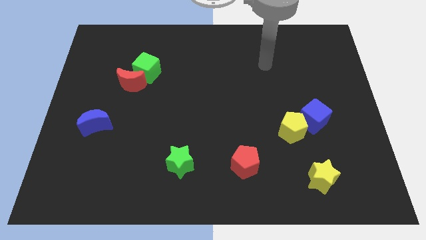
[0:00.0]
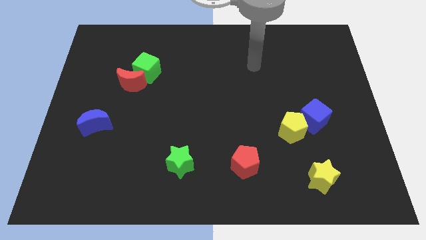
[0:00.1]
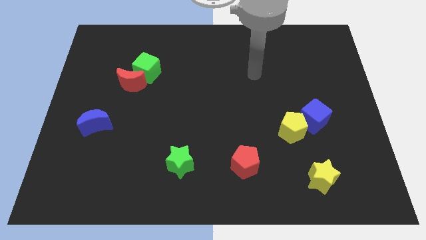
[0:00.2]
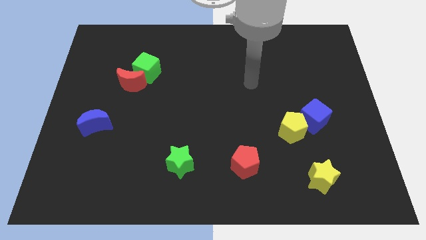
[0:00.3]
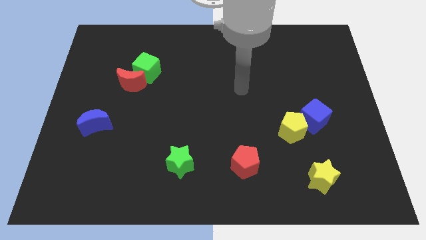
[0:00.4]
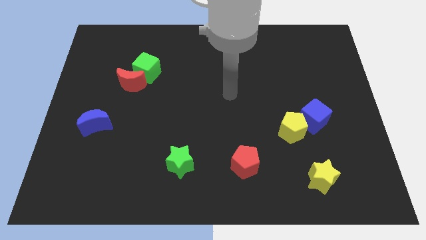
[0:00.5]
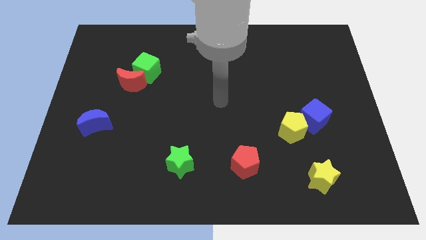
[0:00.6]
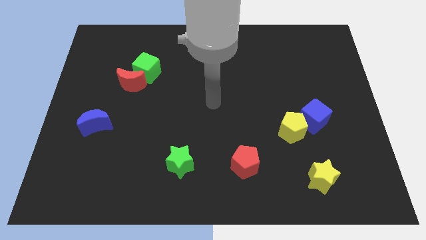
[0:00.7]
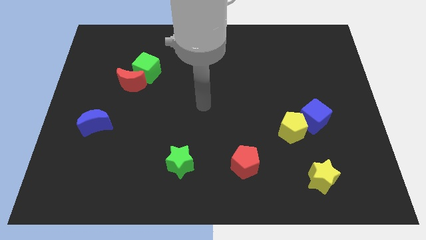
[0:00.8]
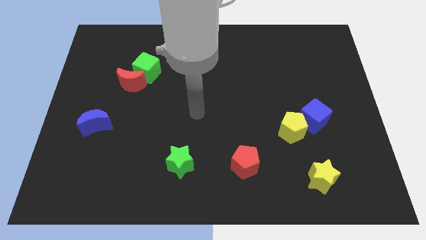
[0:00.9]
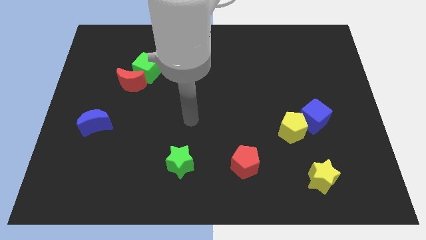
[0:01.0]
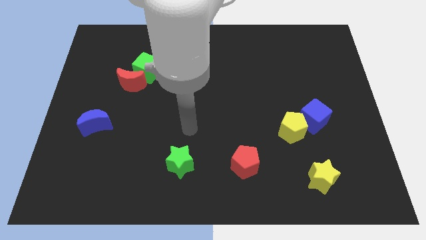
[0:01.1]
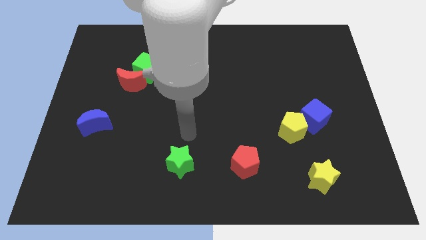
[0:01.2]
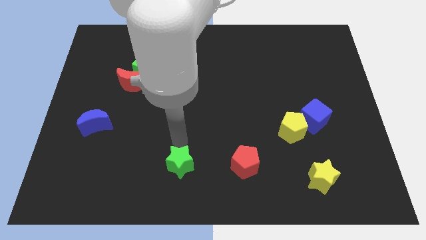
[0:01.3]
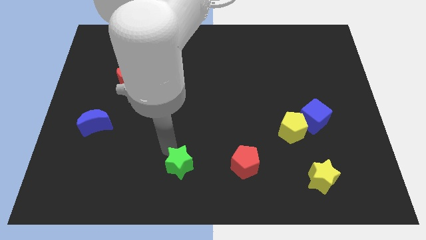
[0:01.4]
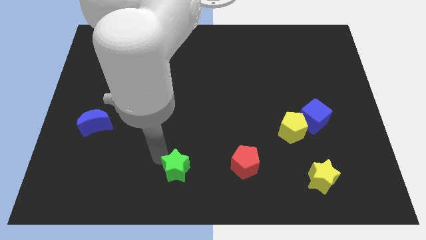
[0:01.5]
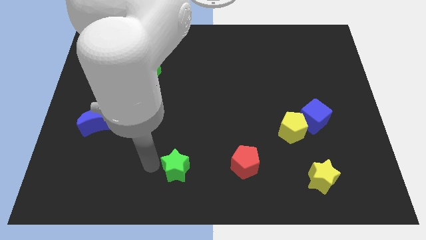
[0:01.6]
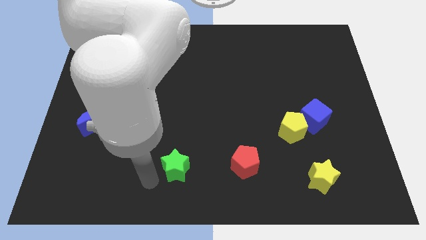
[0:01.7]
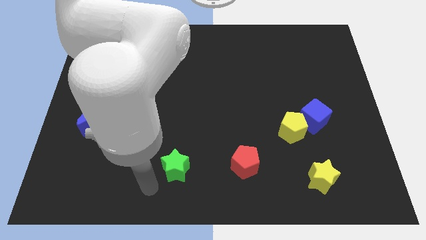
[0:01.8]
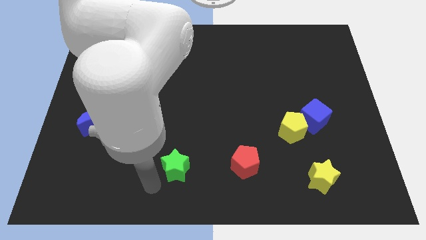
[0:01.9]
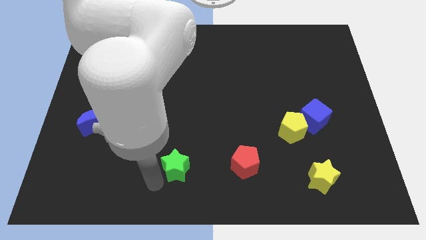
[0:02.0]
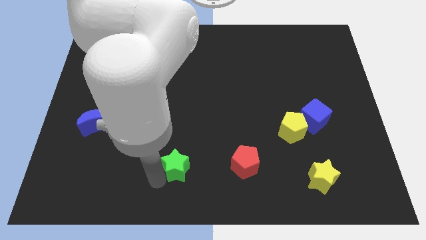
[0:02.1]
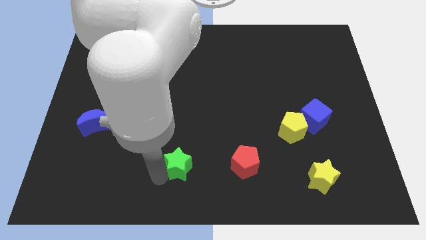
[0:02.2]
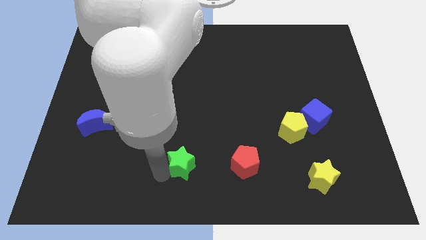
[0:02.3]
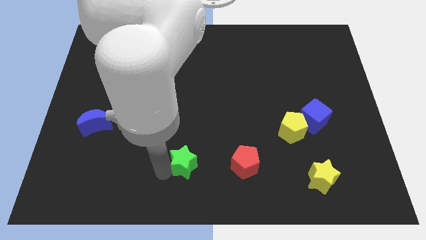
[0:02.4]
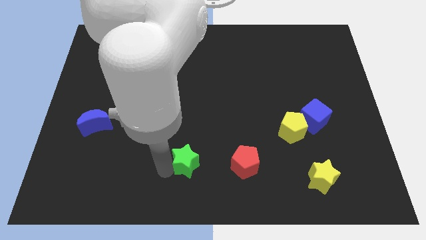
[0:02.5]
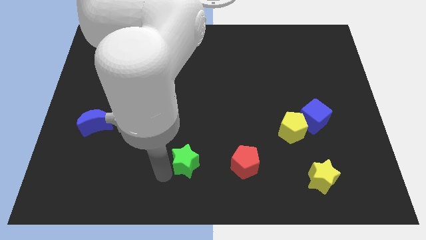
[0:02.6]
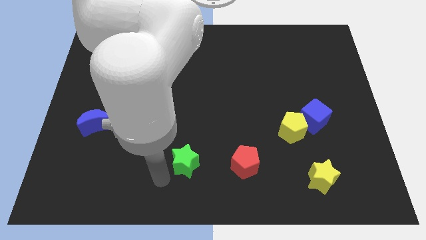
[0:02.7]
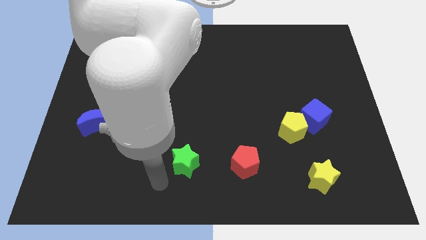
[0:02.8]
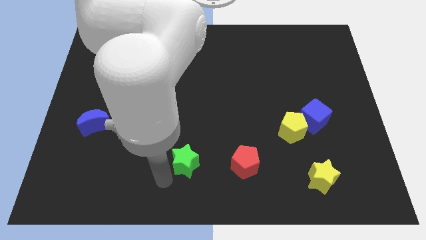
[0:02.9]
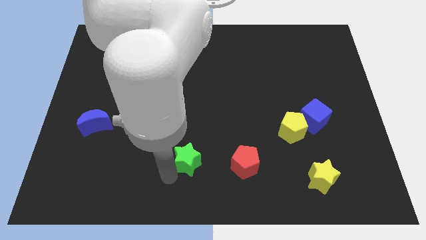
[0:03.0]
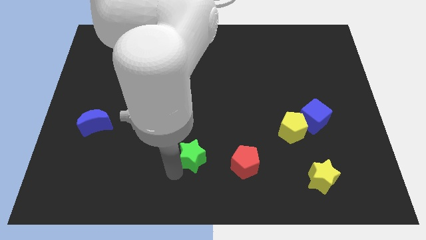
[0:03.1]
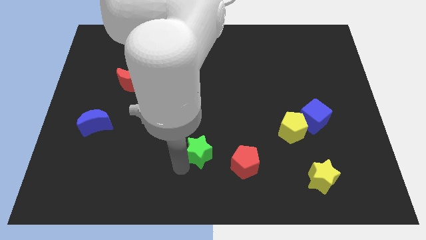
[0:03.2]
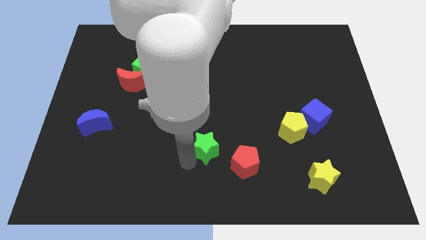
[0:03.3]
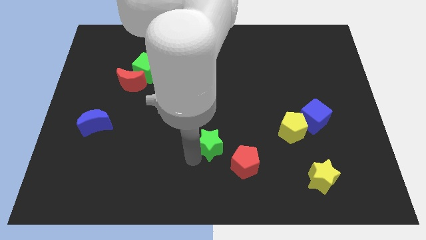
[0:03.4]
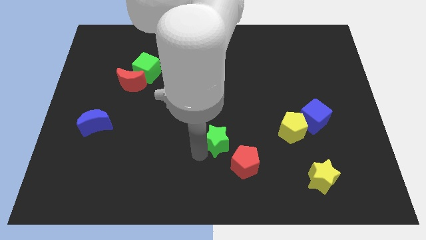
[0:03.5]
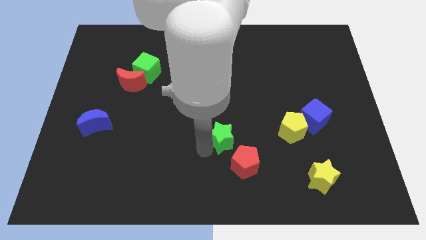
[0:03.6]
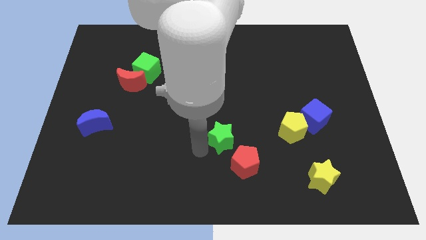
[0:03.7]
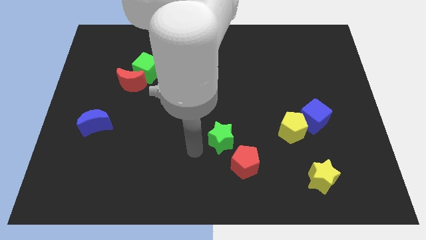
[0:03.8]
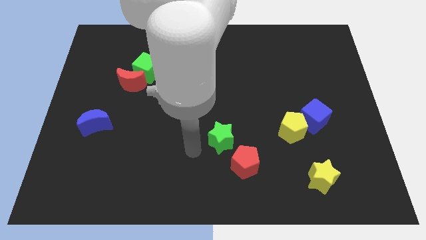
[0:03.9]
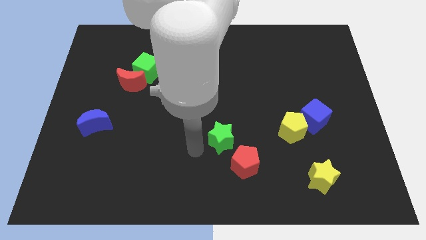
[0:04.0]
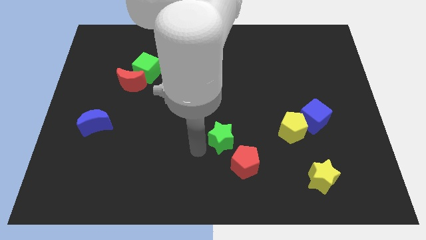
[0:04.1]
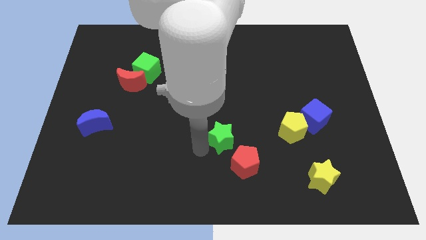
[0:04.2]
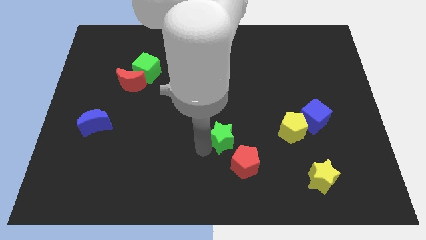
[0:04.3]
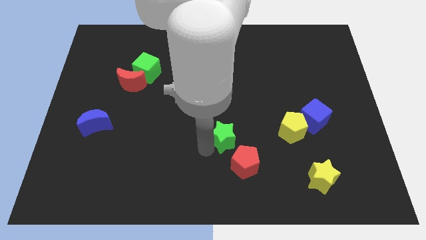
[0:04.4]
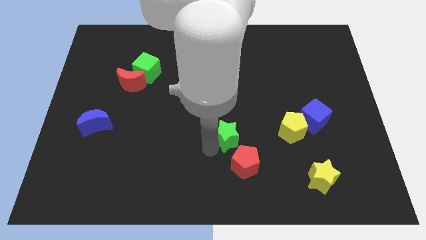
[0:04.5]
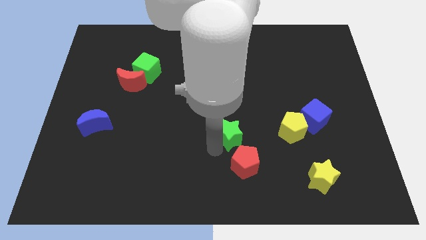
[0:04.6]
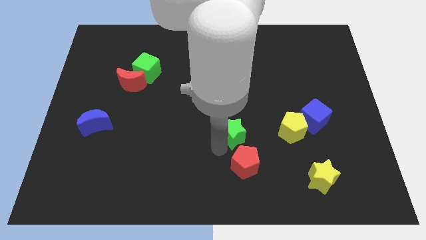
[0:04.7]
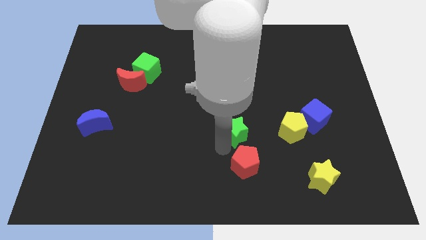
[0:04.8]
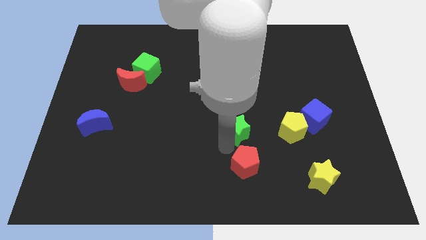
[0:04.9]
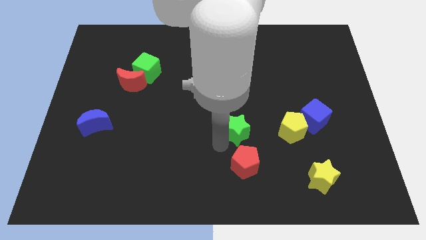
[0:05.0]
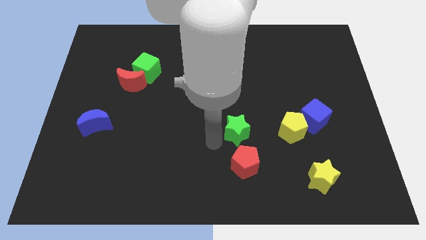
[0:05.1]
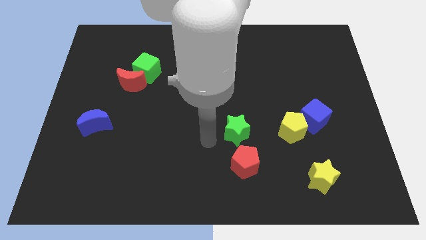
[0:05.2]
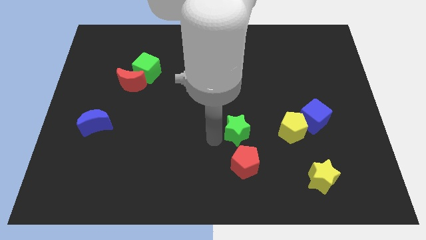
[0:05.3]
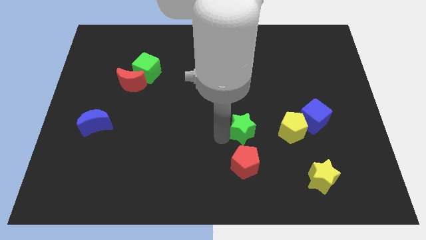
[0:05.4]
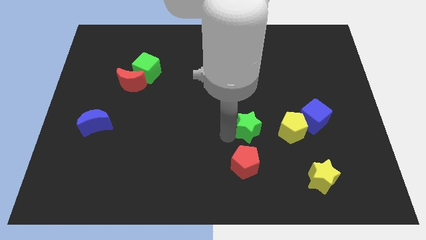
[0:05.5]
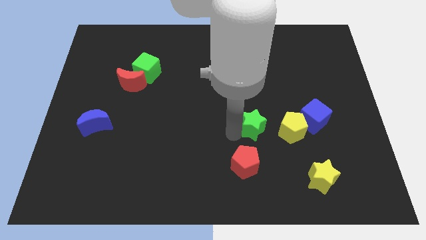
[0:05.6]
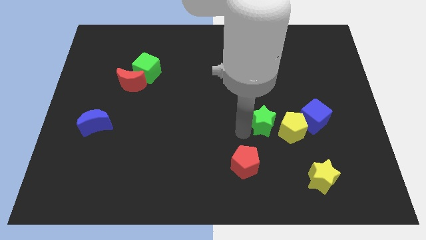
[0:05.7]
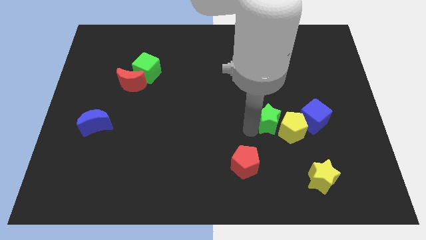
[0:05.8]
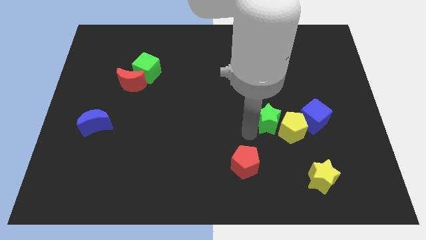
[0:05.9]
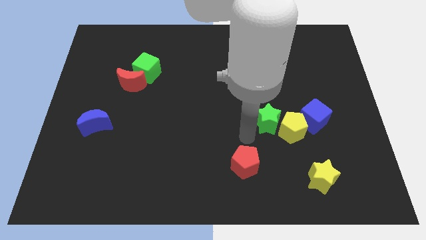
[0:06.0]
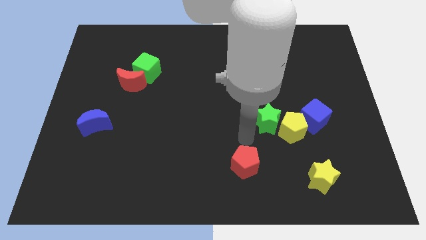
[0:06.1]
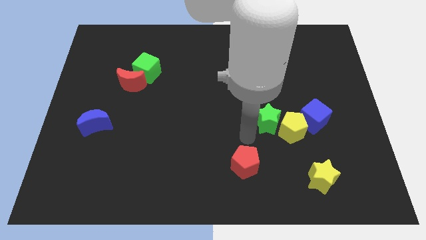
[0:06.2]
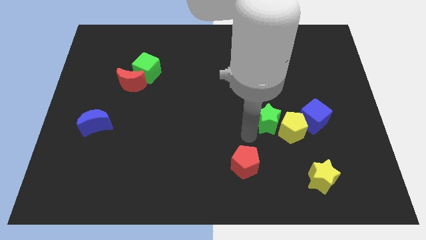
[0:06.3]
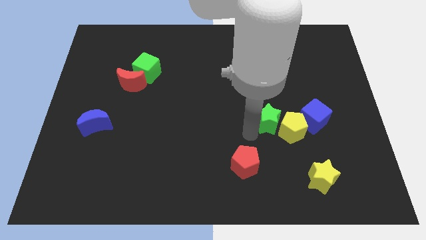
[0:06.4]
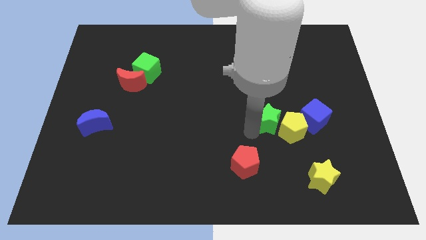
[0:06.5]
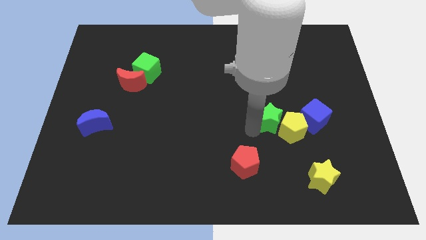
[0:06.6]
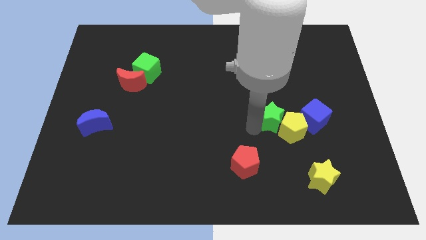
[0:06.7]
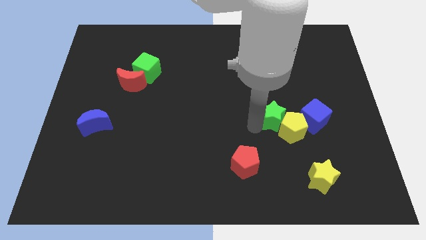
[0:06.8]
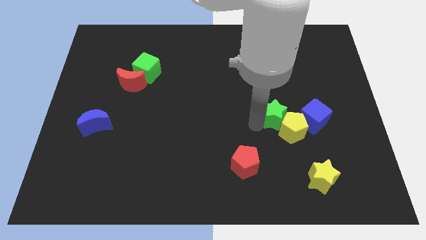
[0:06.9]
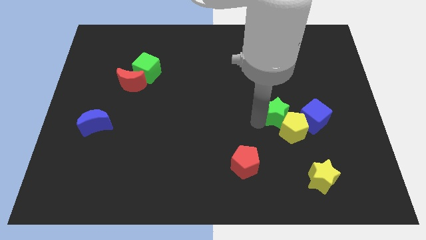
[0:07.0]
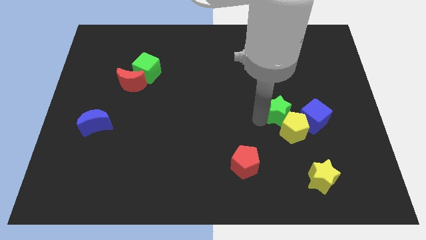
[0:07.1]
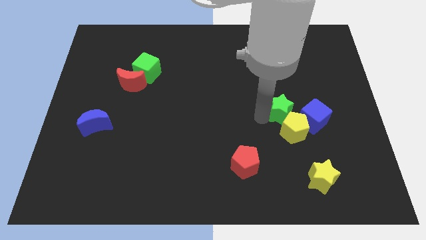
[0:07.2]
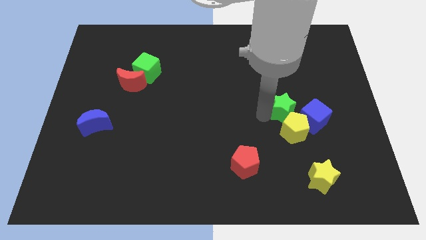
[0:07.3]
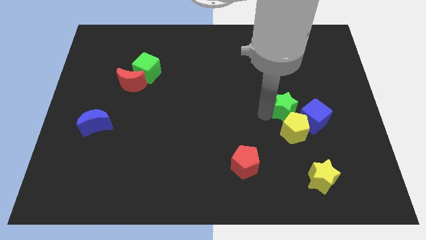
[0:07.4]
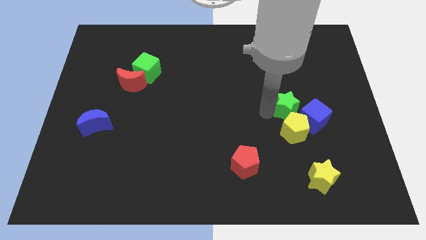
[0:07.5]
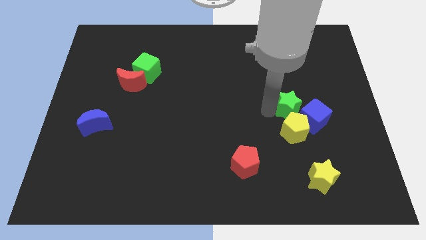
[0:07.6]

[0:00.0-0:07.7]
push the green star to the top right of the yellow pentagon
